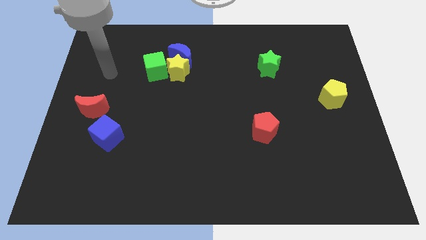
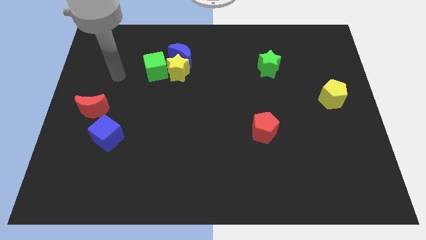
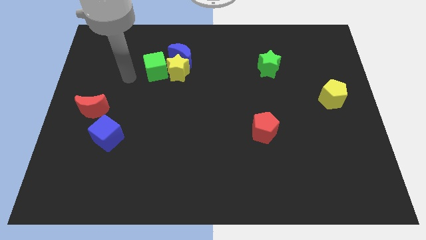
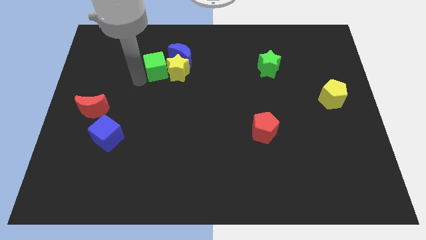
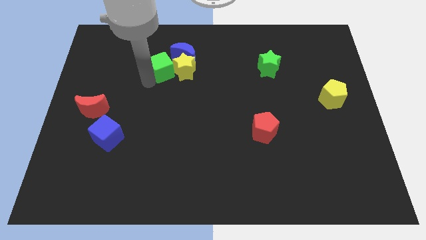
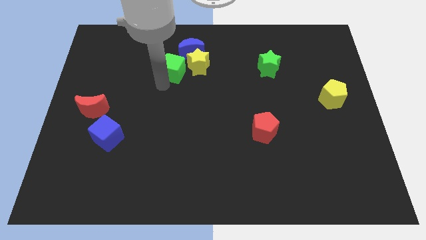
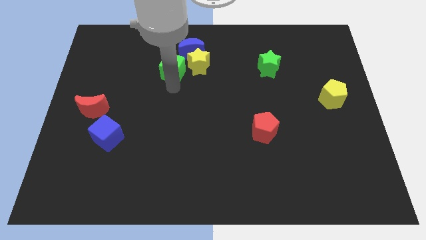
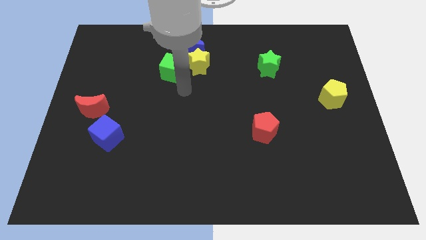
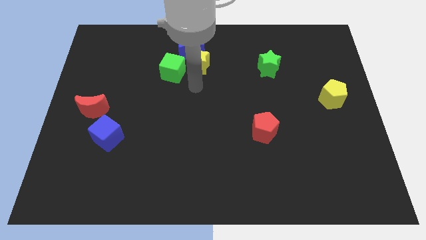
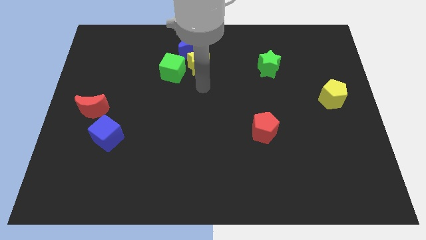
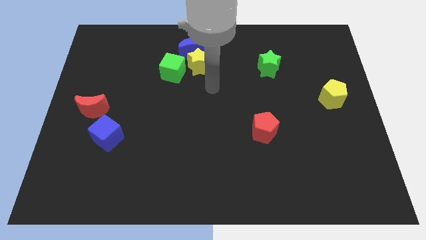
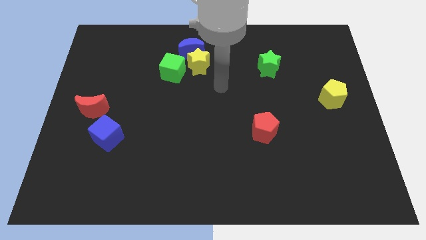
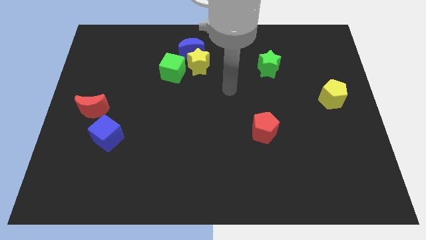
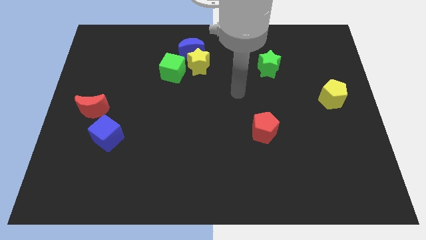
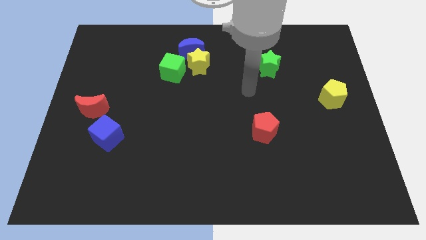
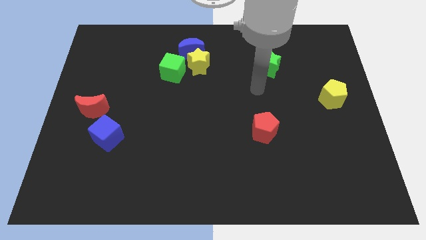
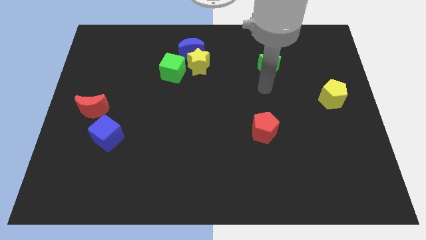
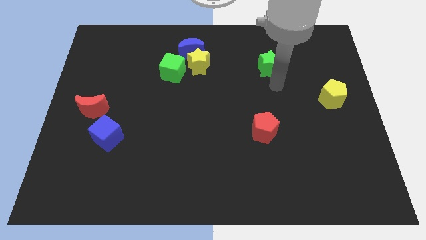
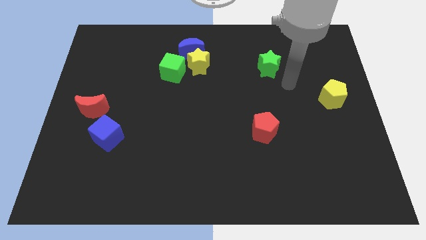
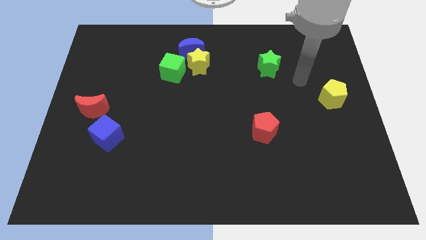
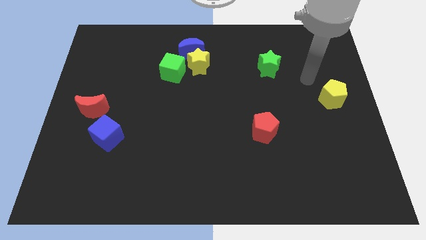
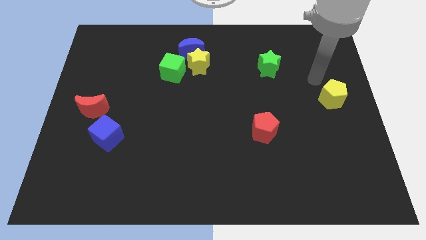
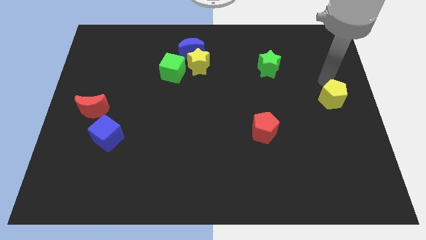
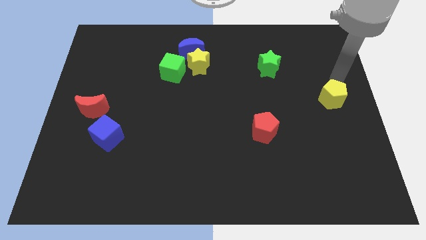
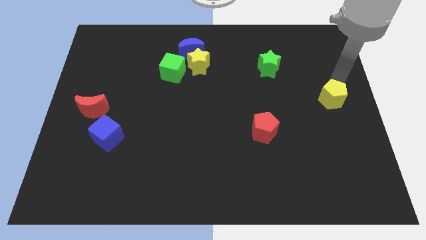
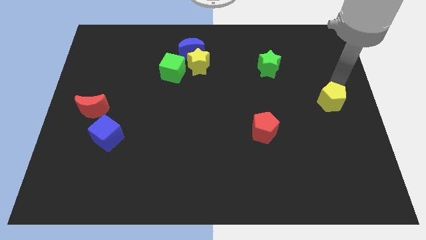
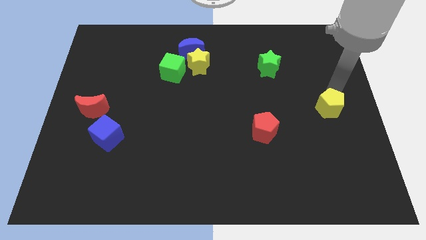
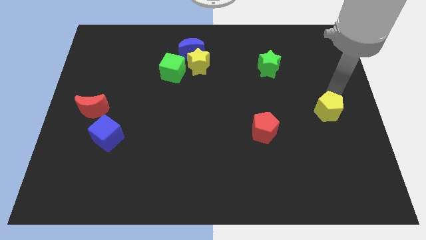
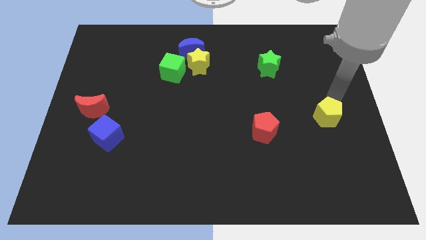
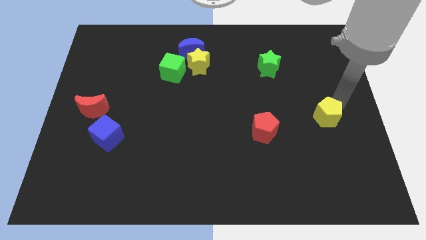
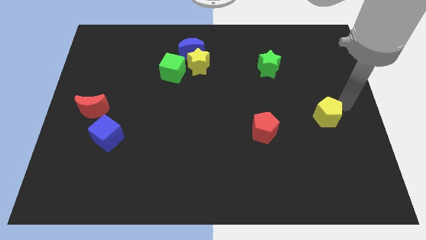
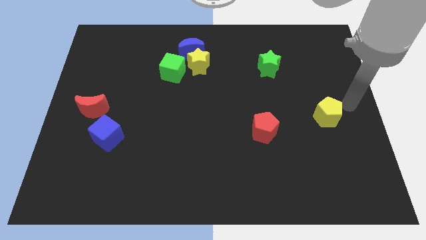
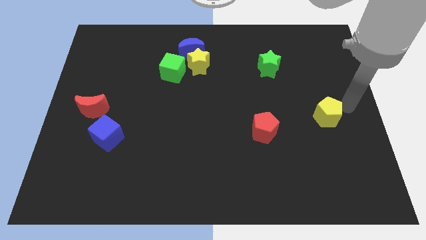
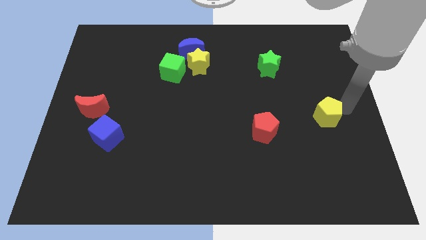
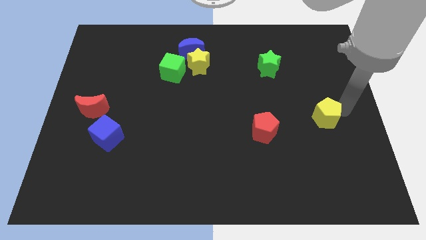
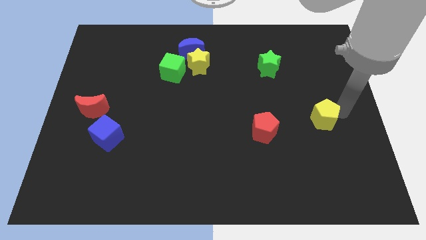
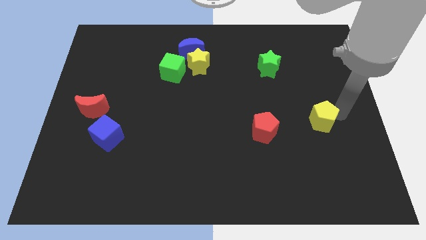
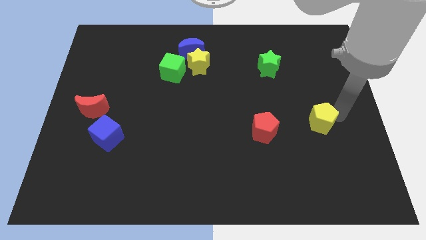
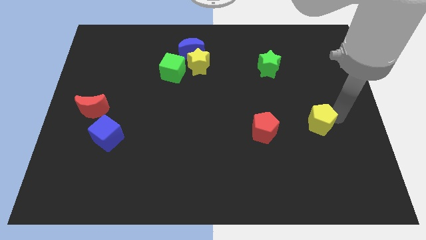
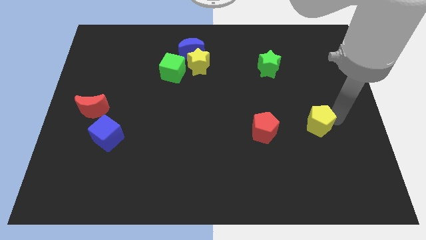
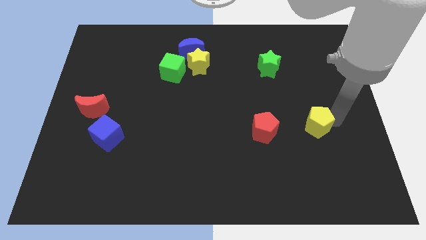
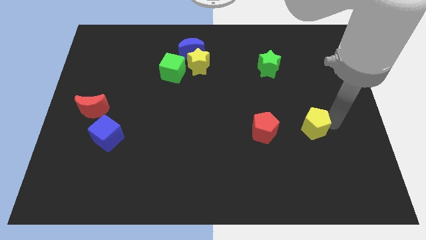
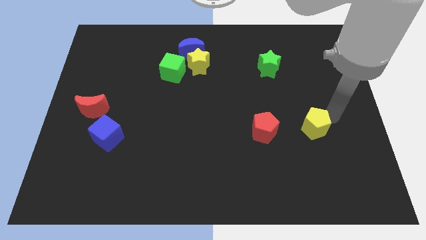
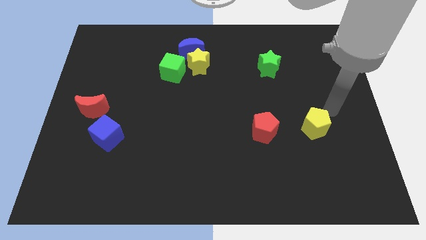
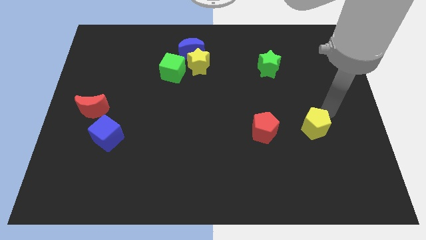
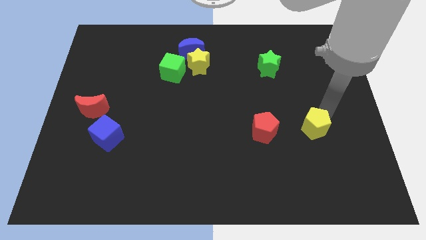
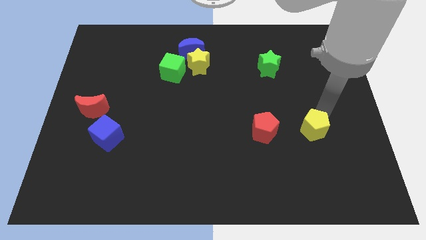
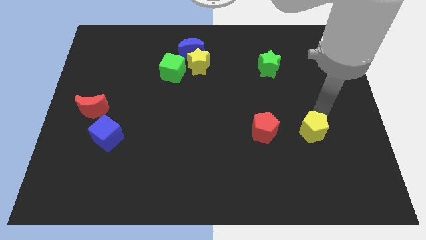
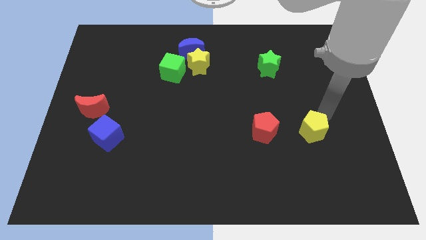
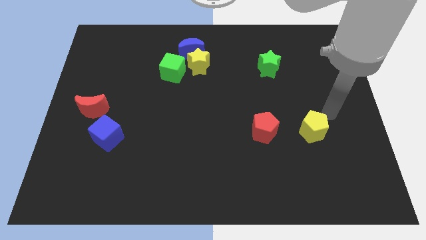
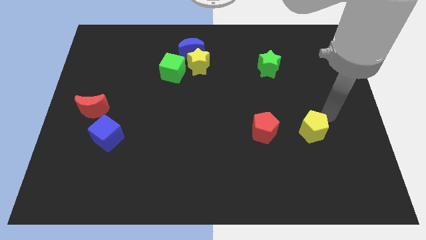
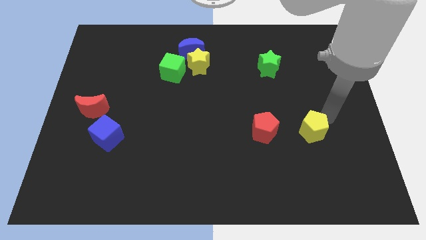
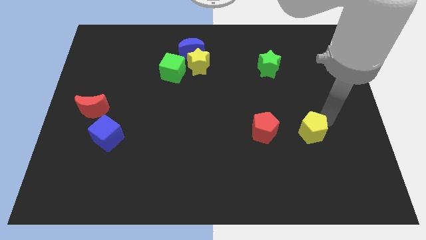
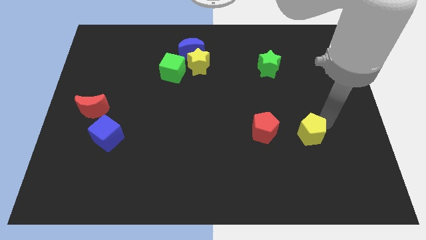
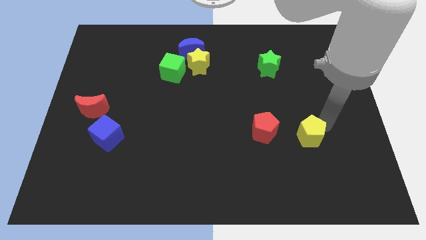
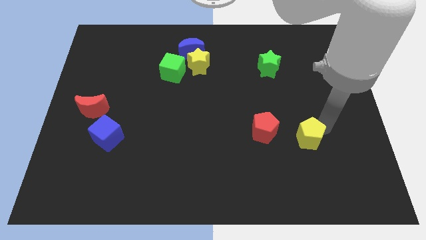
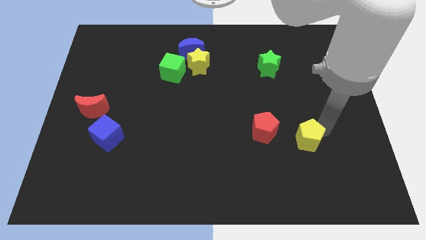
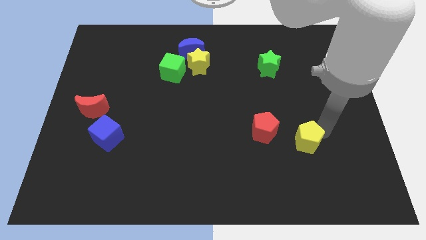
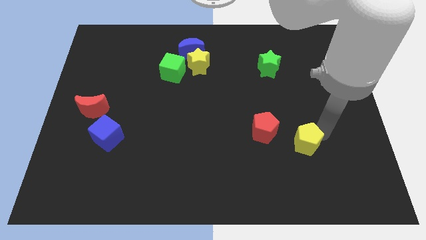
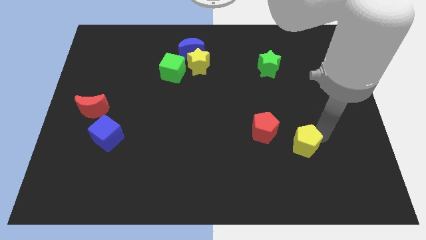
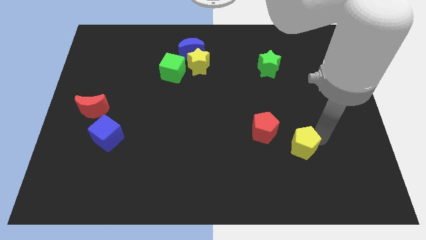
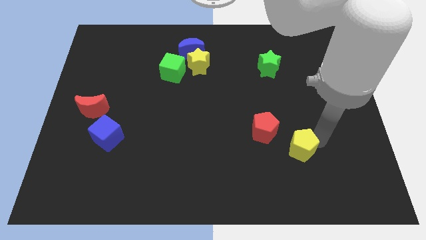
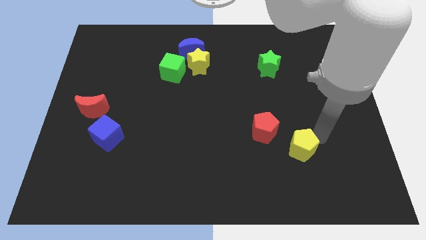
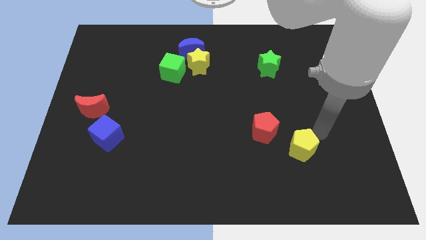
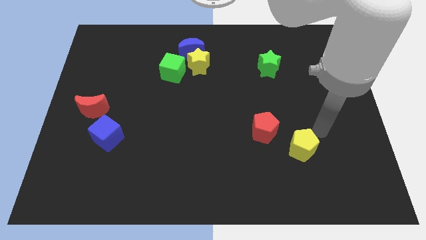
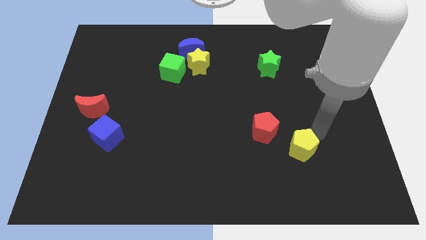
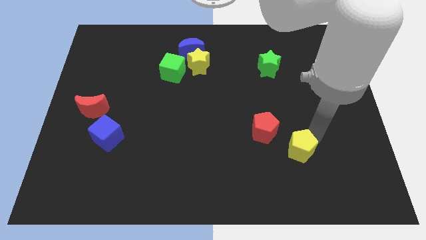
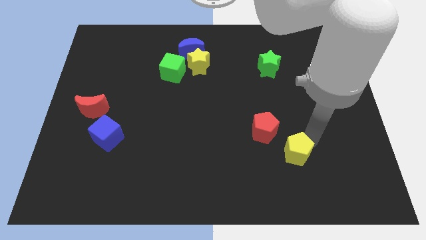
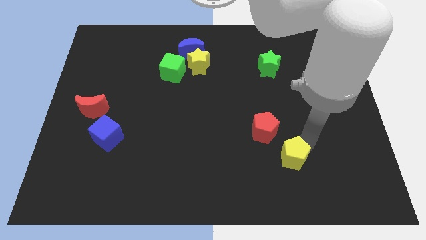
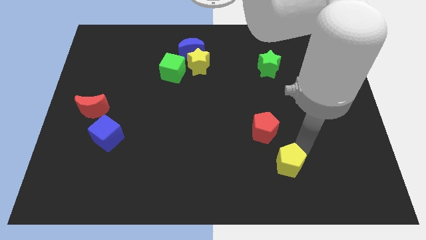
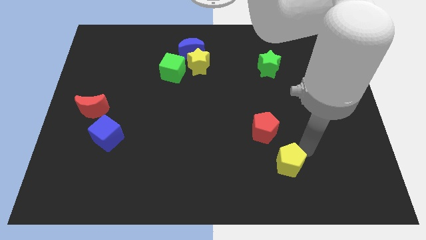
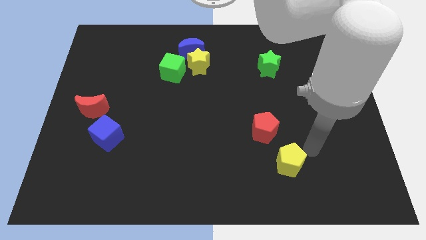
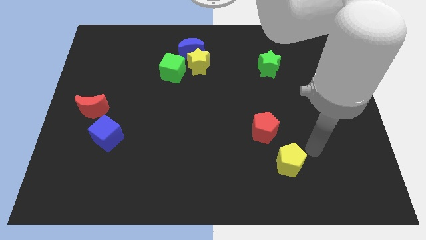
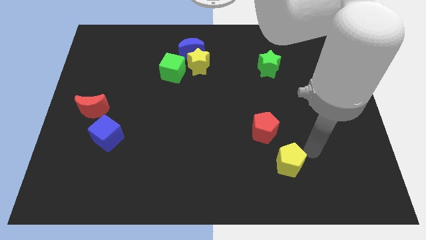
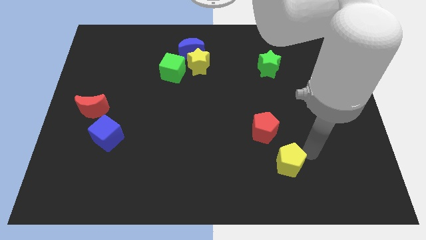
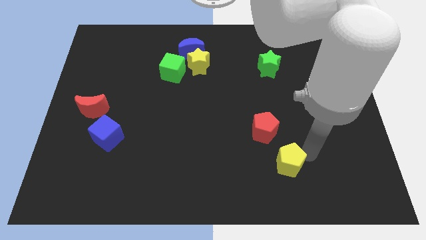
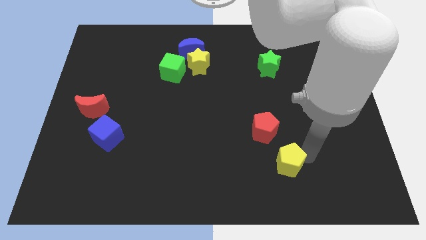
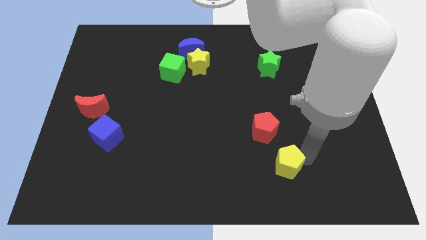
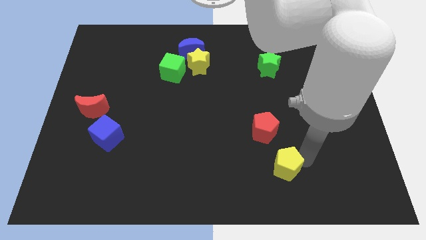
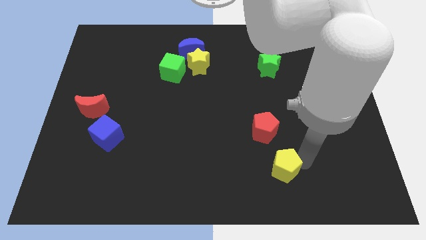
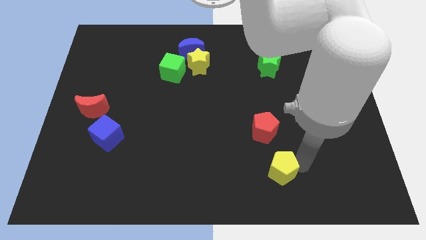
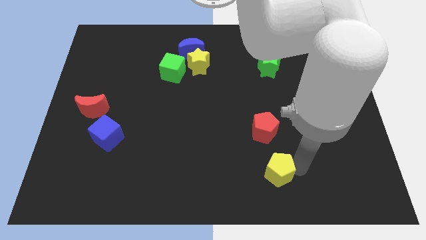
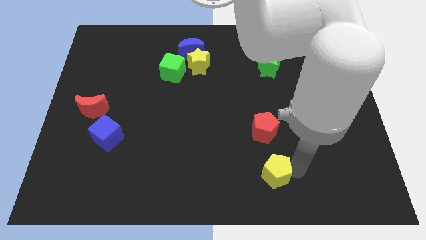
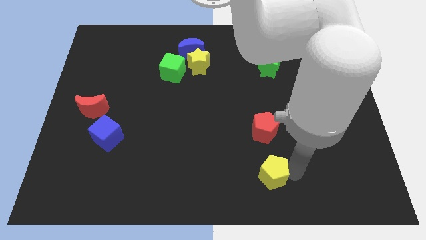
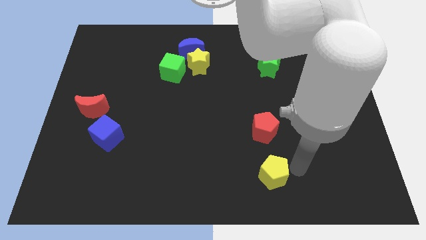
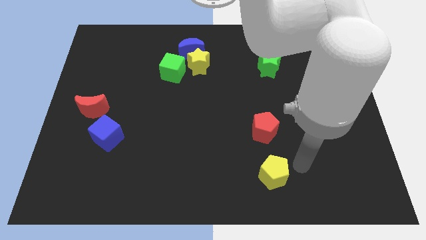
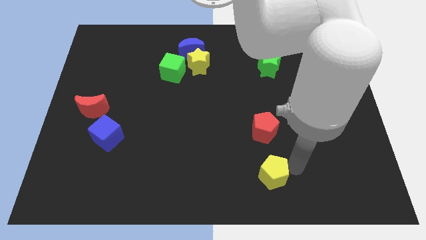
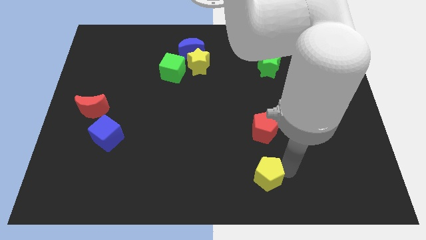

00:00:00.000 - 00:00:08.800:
move the yellow pentagon to the bottom side
